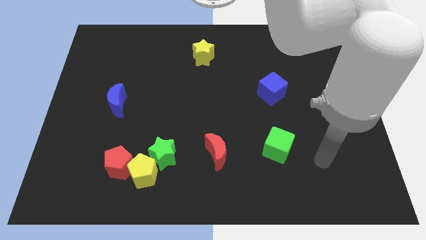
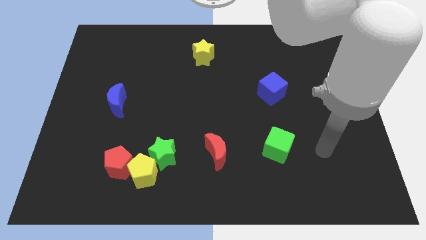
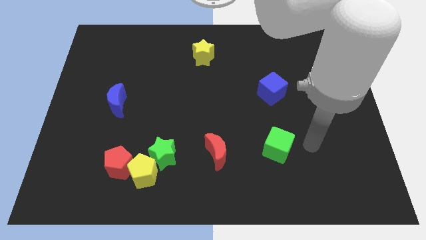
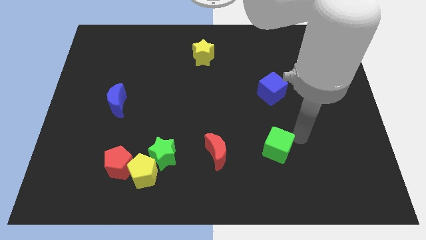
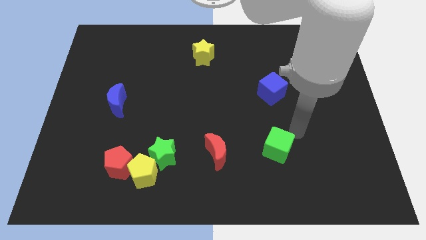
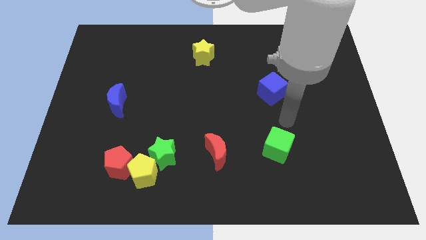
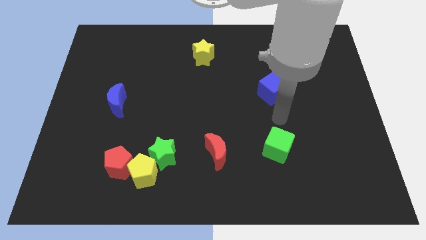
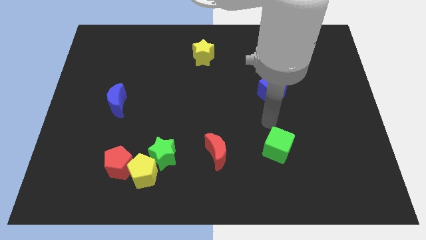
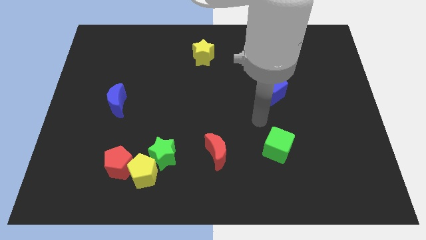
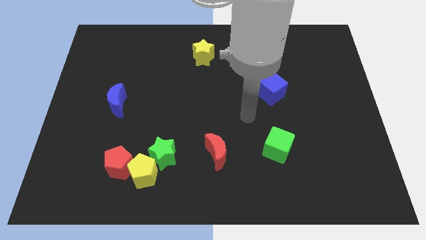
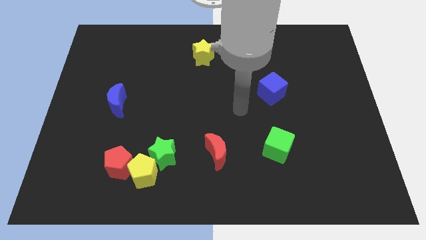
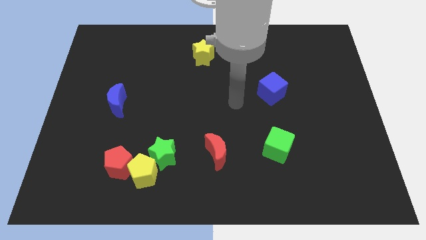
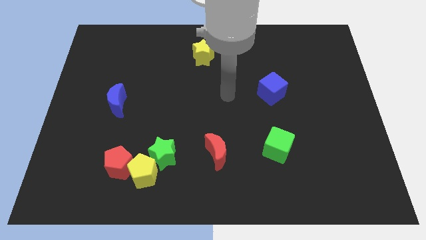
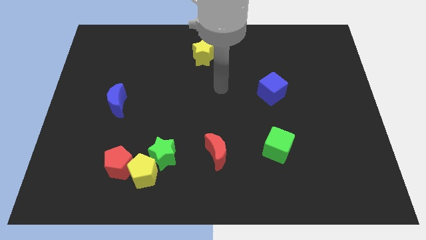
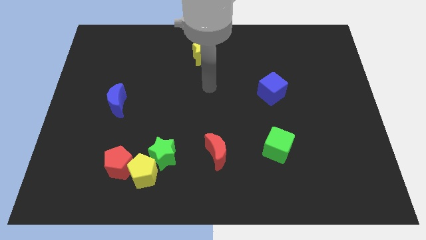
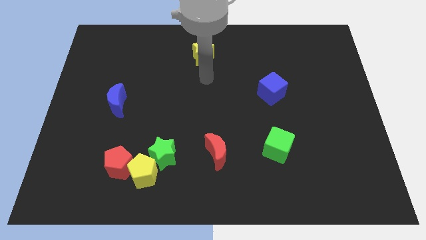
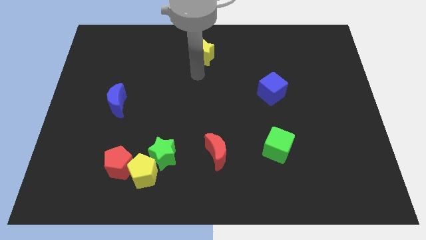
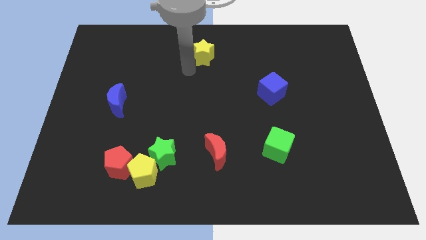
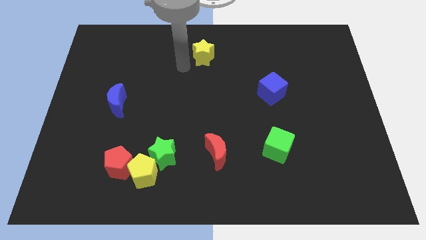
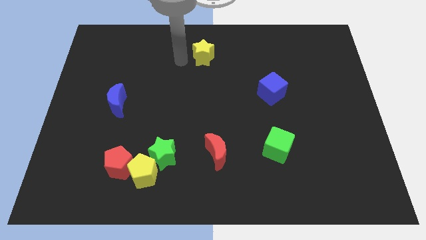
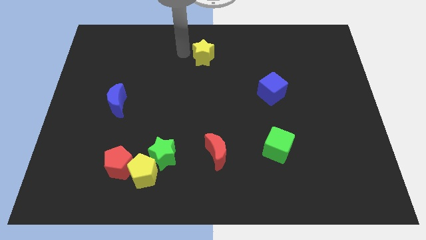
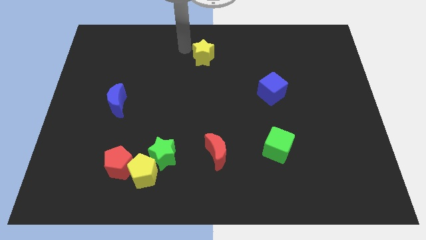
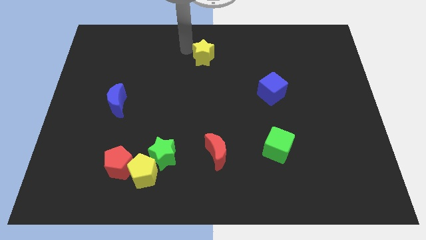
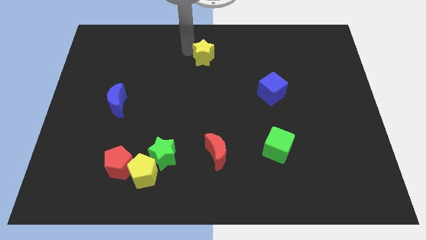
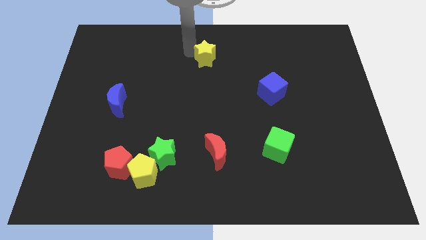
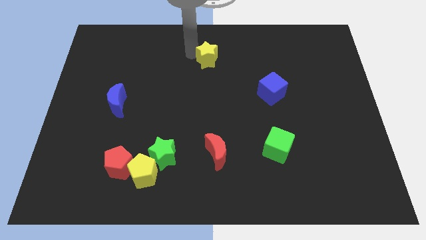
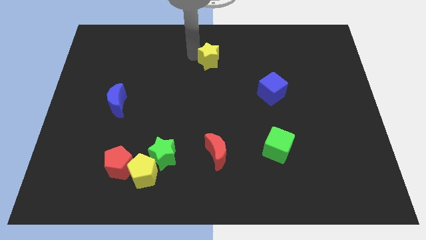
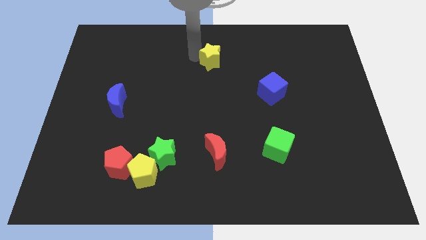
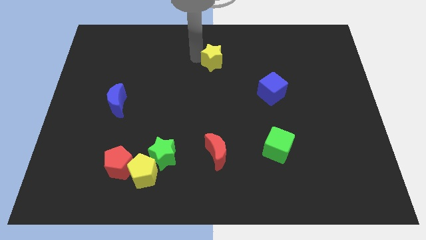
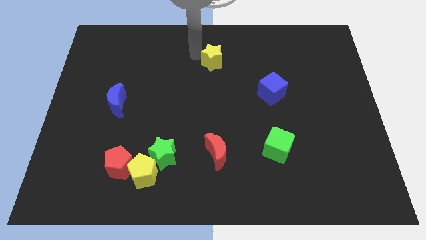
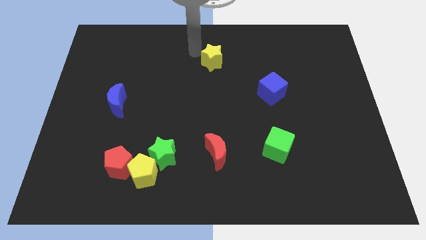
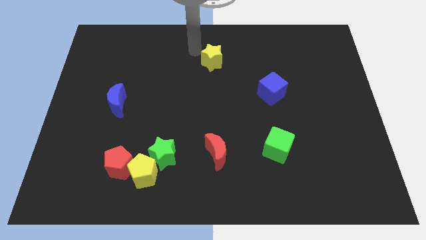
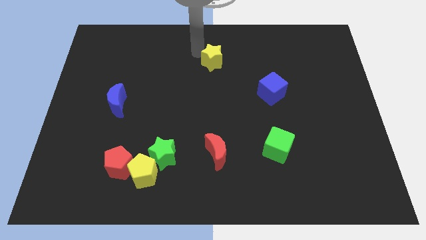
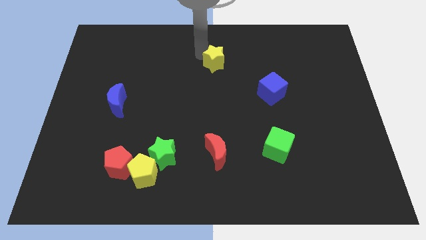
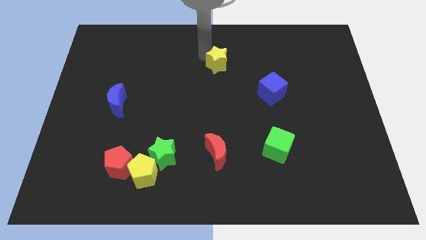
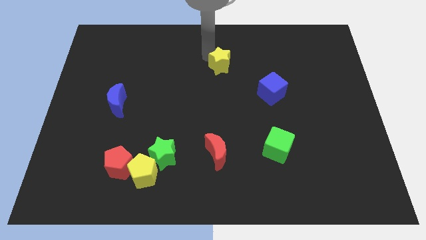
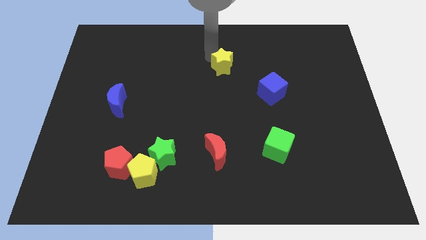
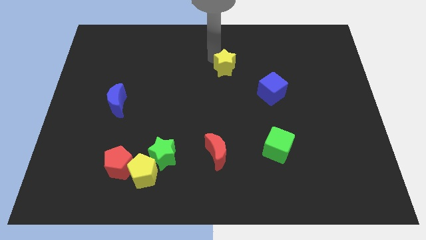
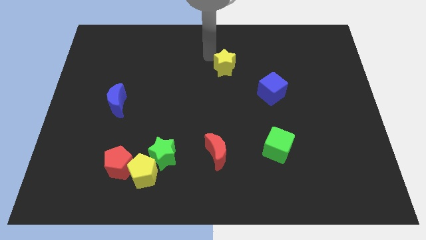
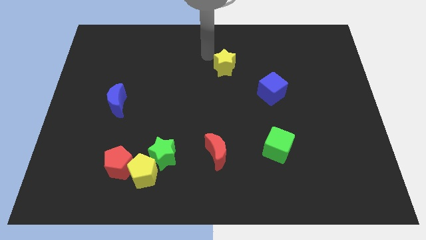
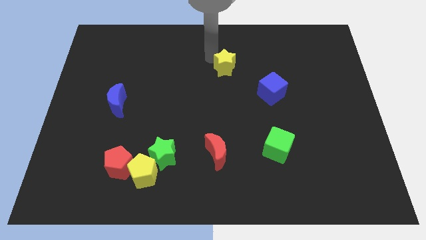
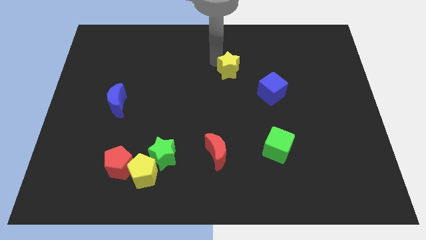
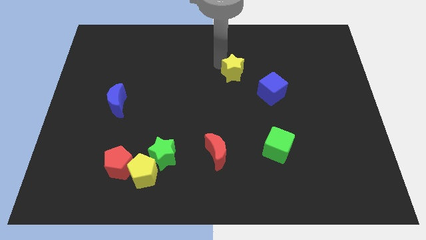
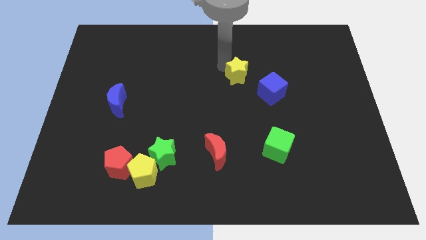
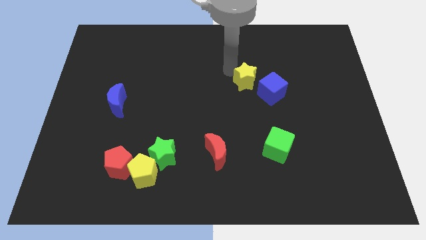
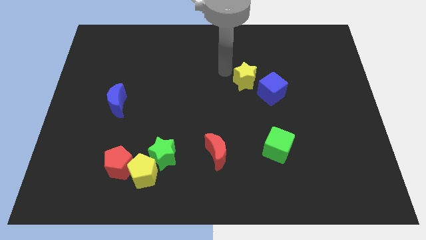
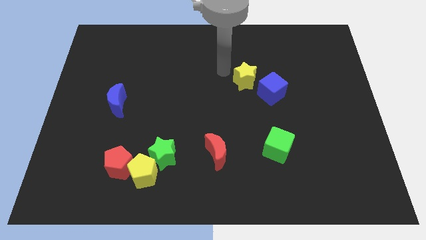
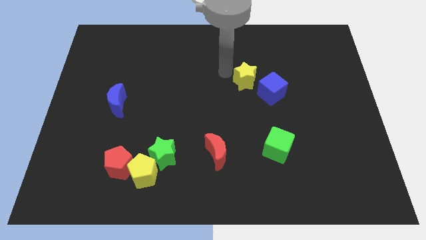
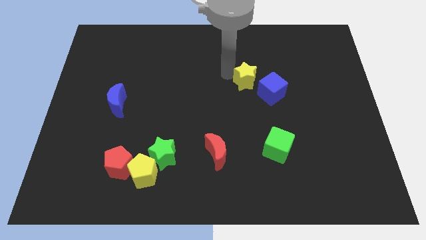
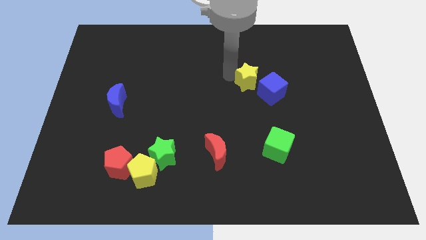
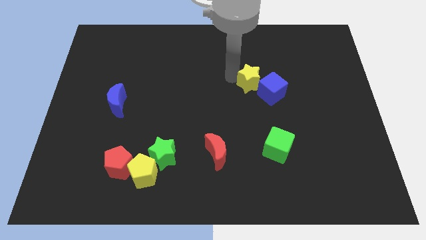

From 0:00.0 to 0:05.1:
put the yellow star towards the blue cube

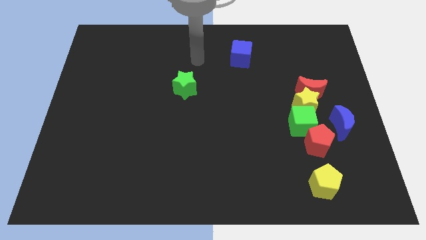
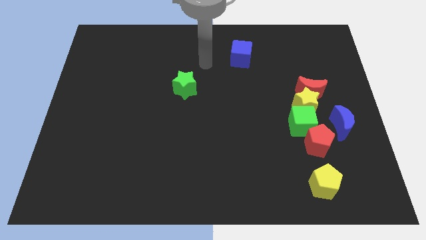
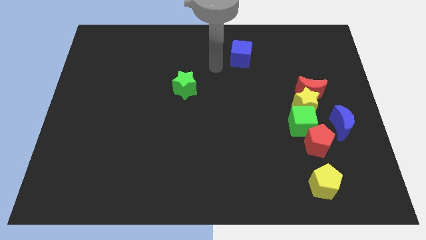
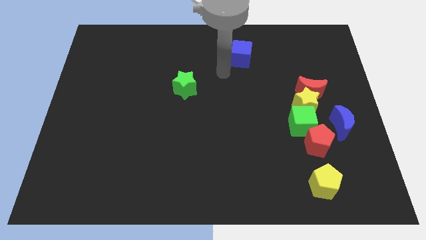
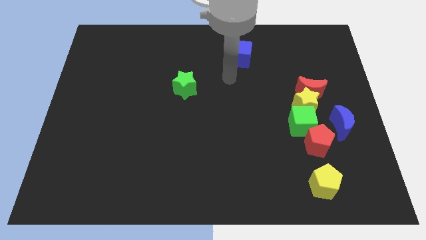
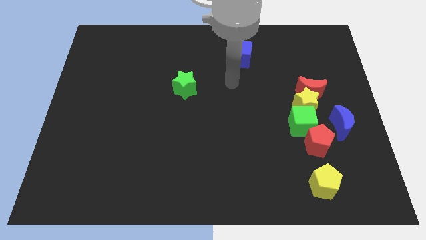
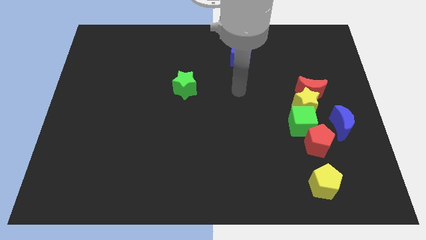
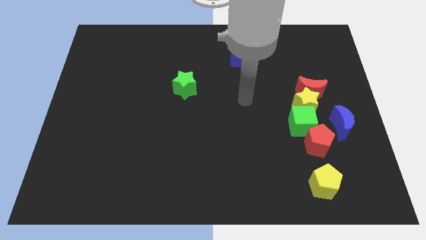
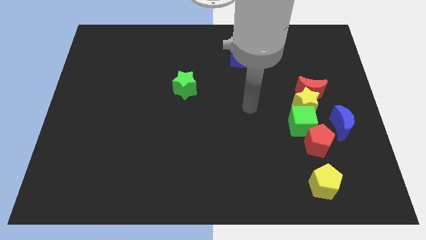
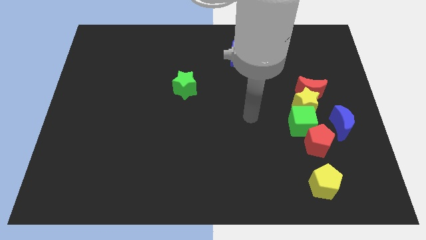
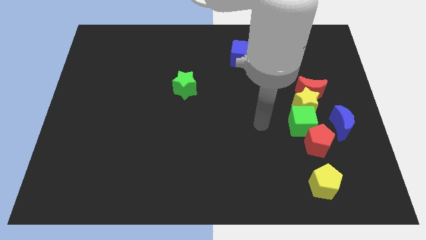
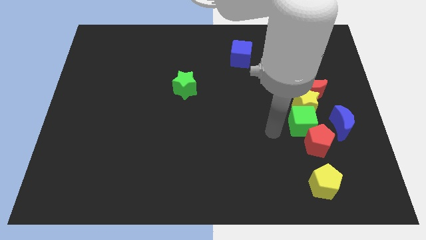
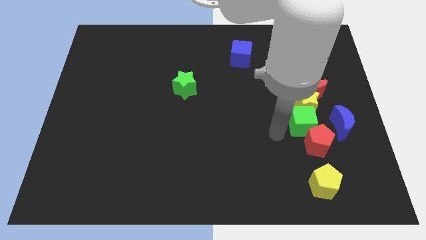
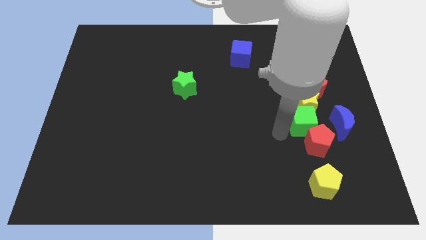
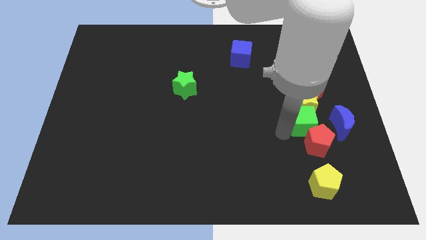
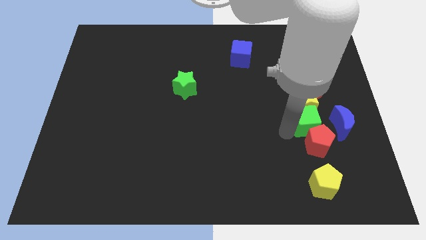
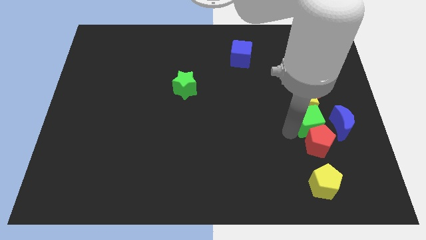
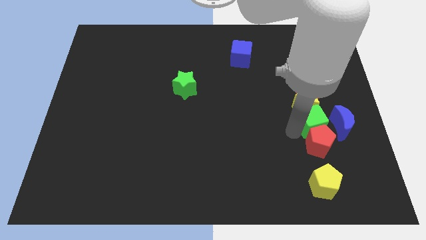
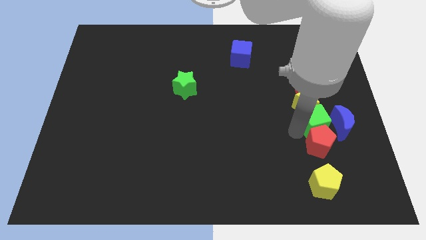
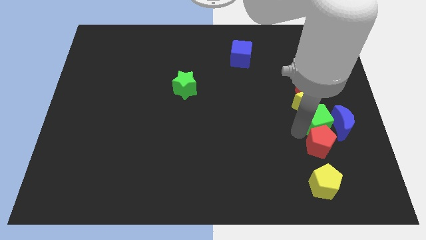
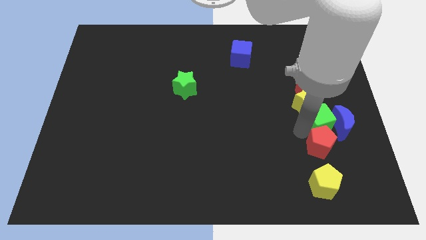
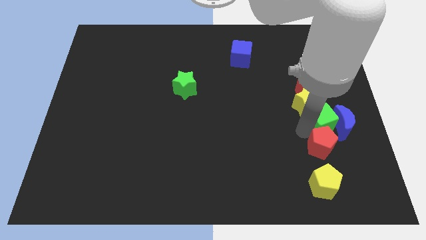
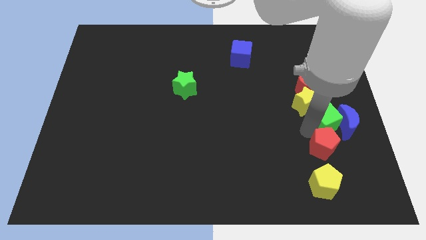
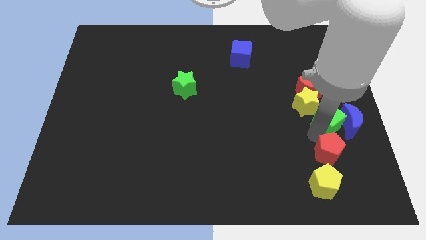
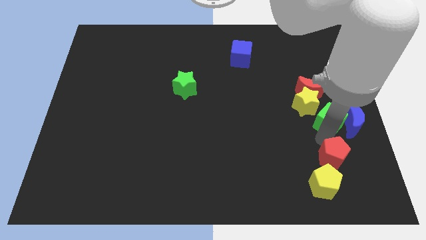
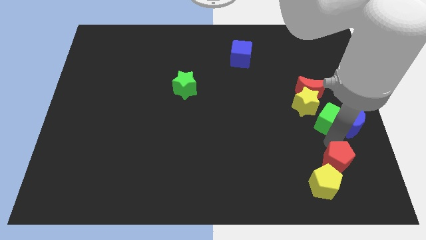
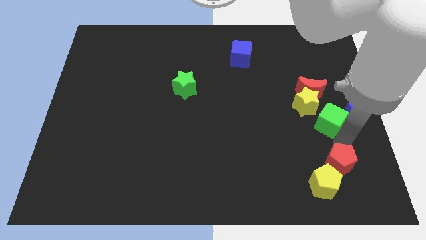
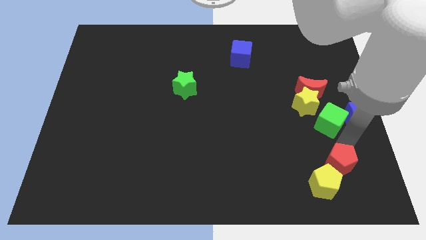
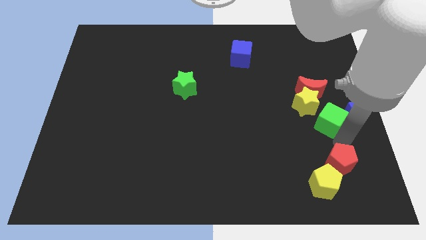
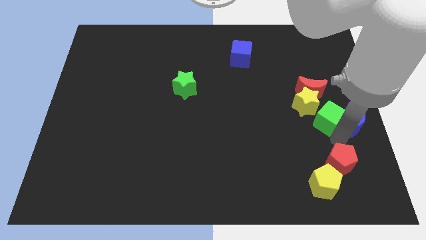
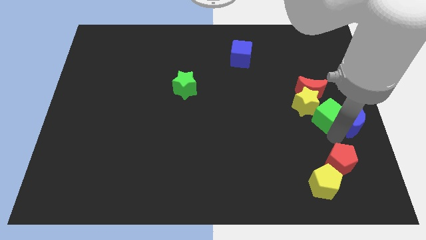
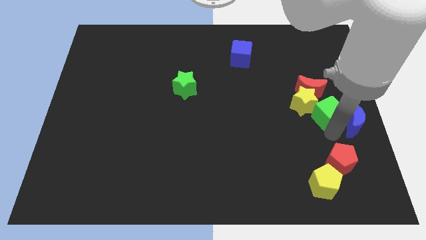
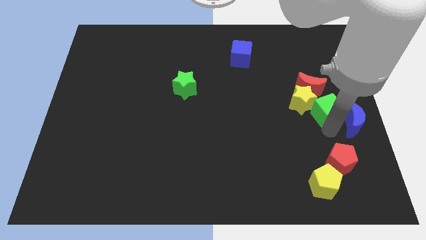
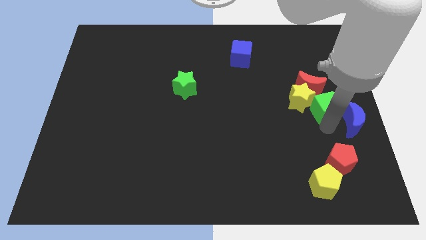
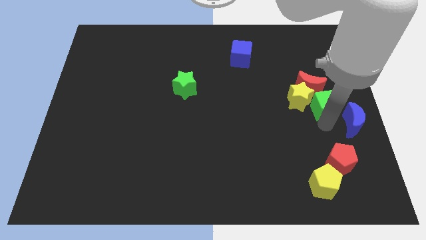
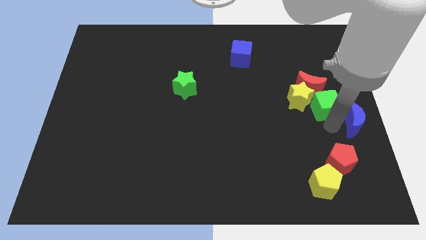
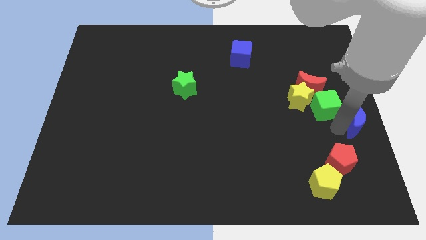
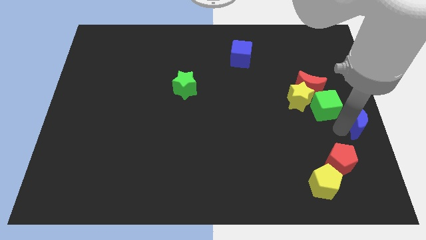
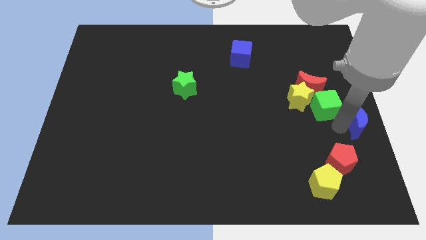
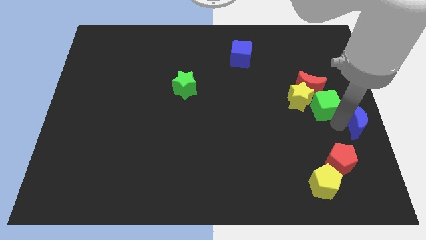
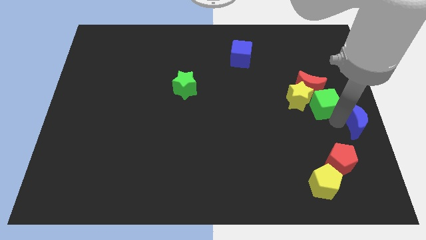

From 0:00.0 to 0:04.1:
push the green cube towards the red moon
